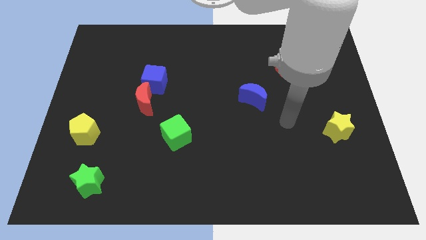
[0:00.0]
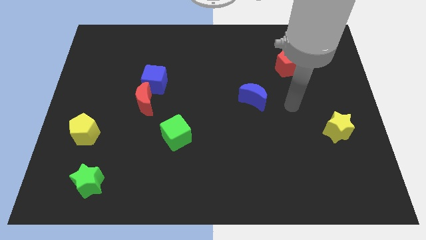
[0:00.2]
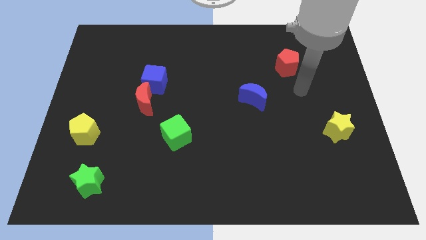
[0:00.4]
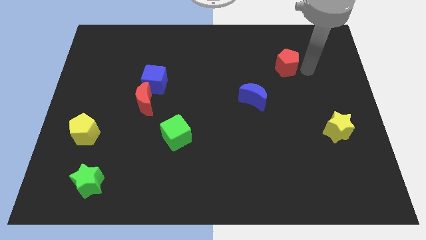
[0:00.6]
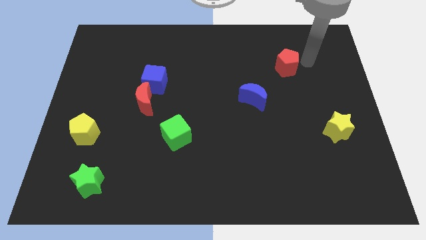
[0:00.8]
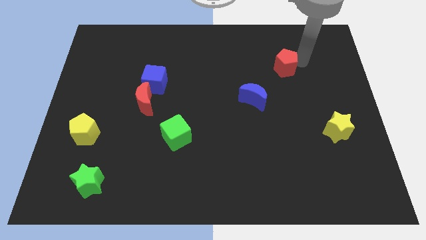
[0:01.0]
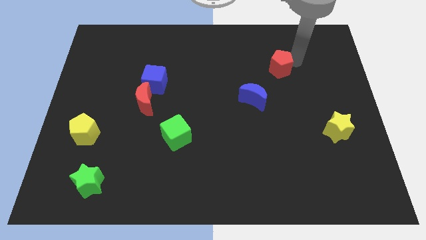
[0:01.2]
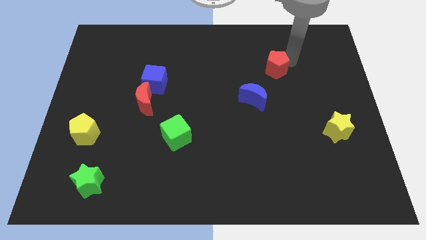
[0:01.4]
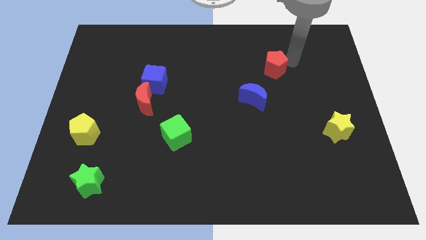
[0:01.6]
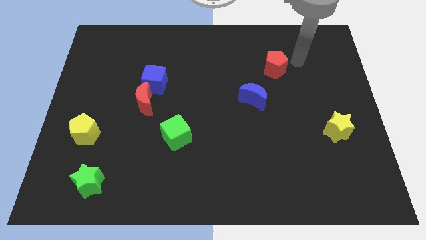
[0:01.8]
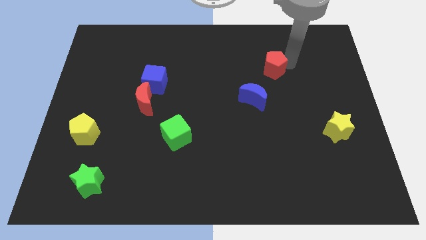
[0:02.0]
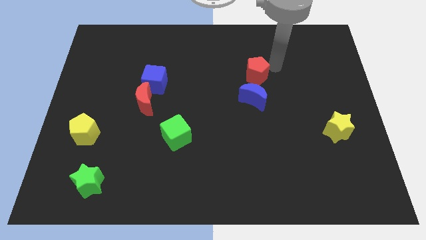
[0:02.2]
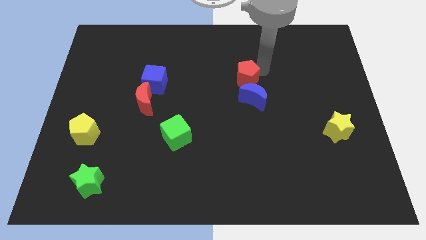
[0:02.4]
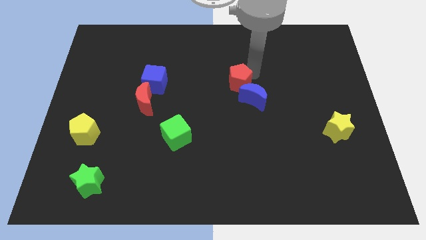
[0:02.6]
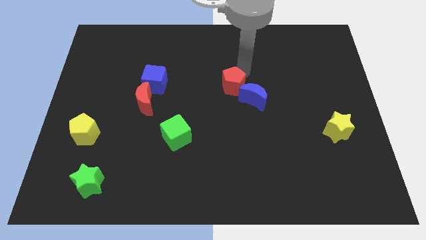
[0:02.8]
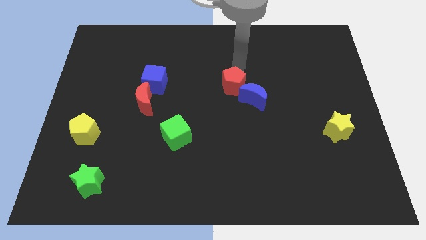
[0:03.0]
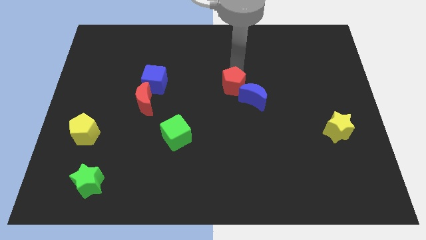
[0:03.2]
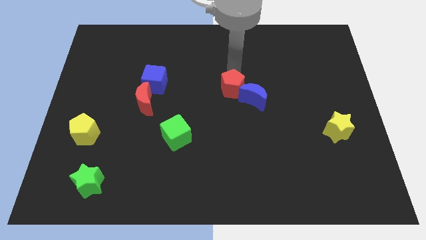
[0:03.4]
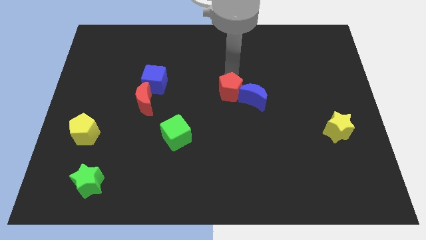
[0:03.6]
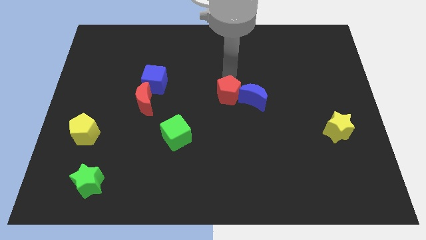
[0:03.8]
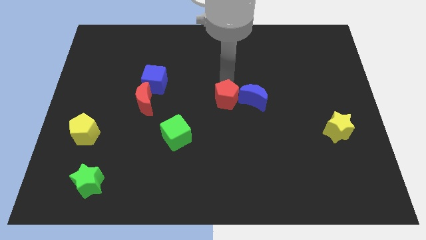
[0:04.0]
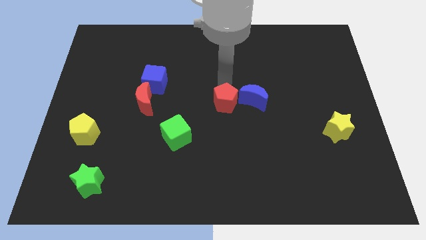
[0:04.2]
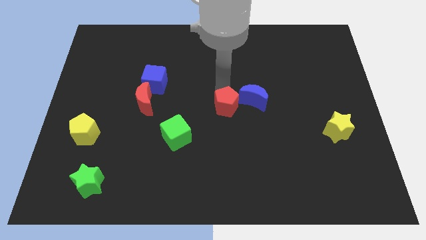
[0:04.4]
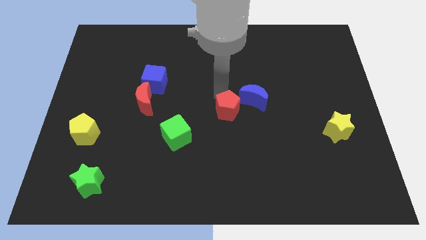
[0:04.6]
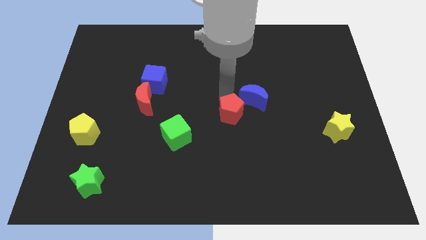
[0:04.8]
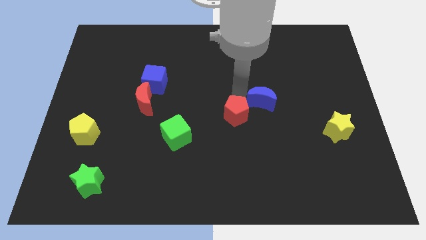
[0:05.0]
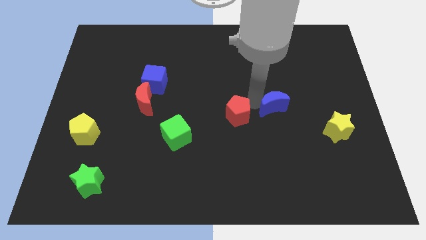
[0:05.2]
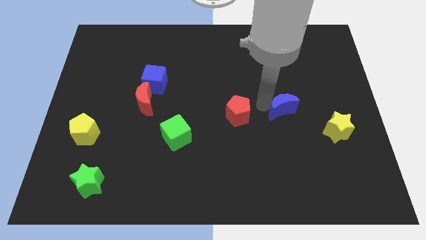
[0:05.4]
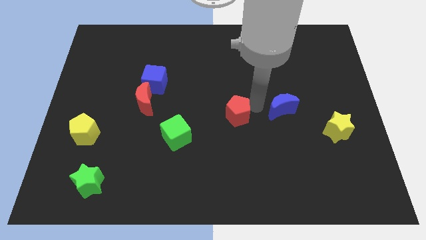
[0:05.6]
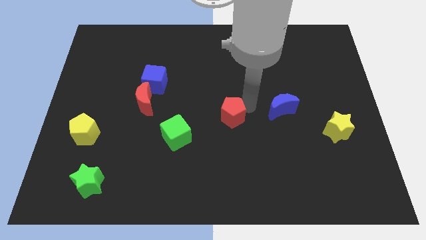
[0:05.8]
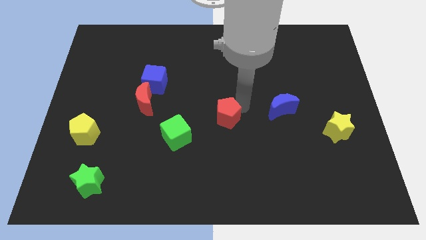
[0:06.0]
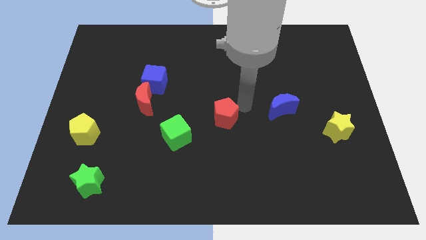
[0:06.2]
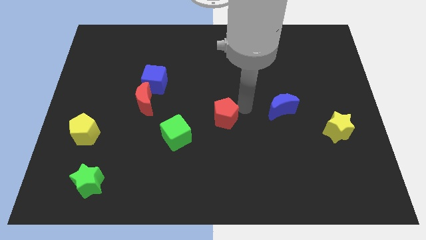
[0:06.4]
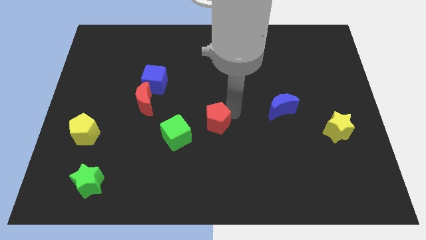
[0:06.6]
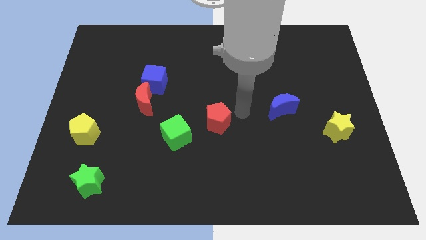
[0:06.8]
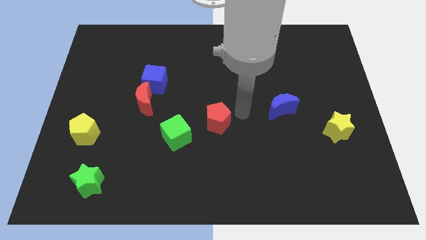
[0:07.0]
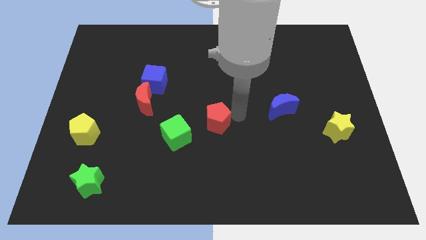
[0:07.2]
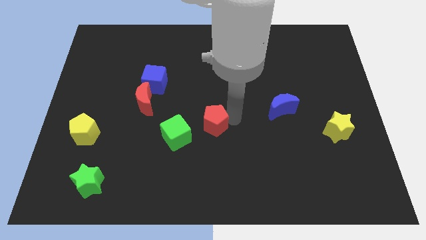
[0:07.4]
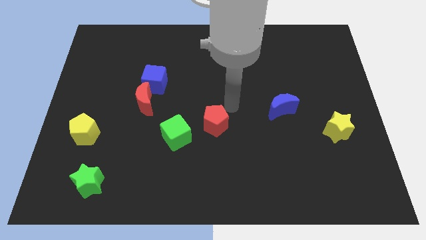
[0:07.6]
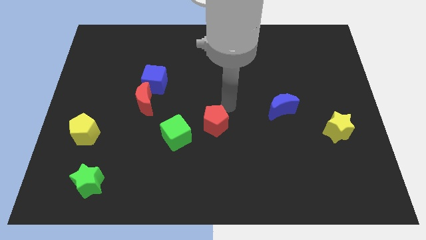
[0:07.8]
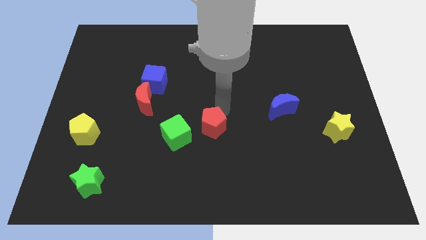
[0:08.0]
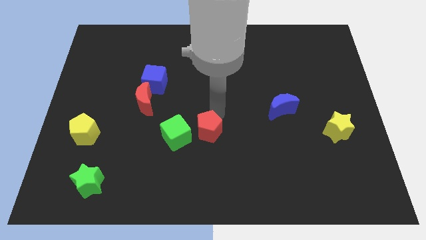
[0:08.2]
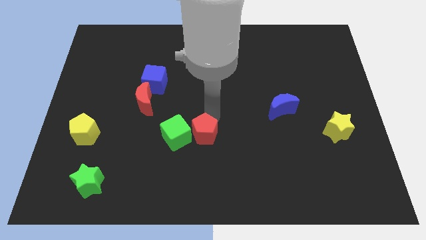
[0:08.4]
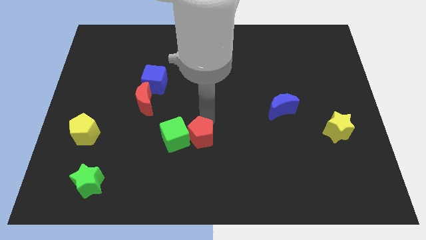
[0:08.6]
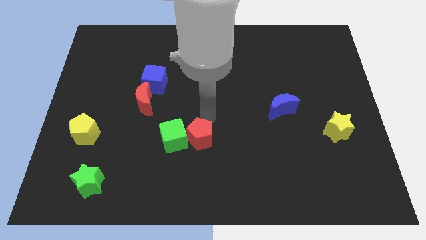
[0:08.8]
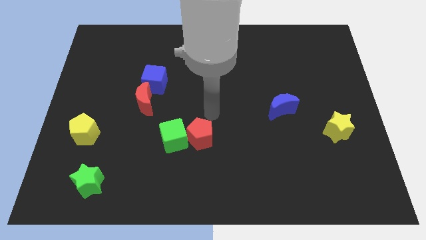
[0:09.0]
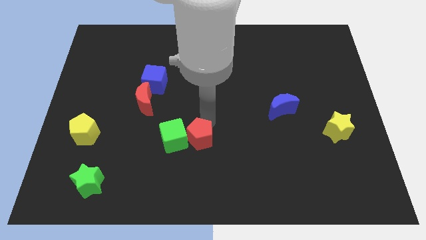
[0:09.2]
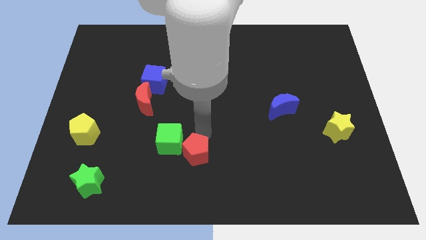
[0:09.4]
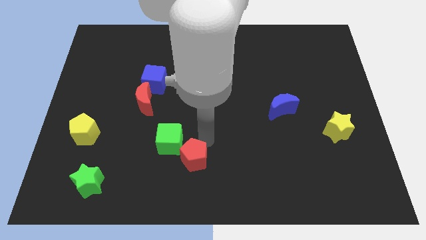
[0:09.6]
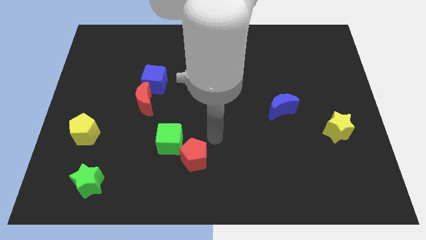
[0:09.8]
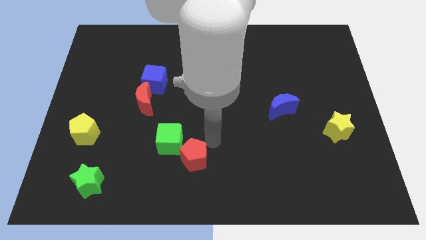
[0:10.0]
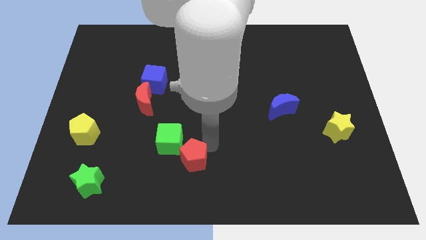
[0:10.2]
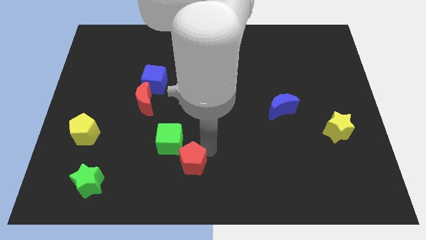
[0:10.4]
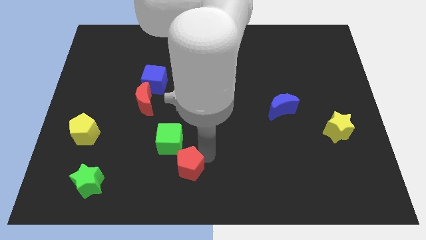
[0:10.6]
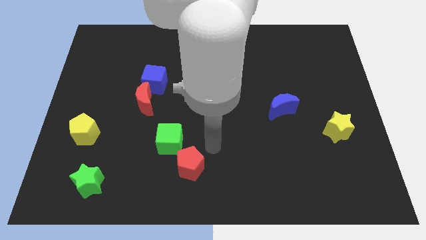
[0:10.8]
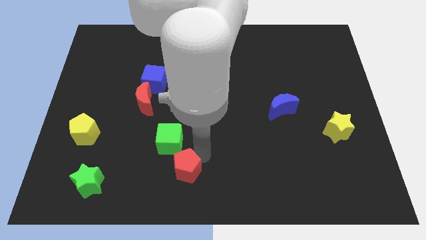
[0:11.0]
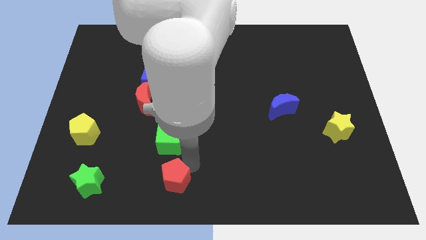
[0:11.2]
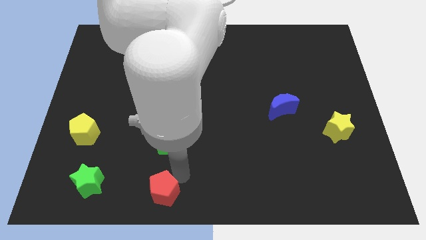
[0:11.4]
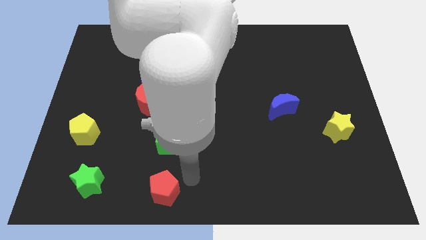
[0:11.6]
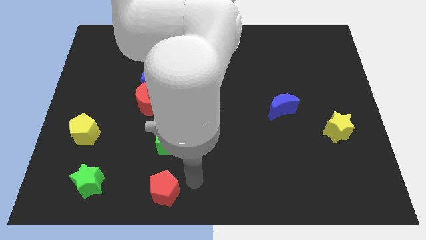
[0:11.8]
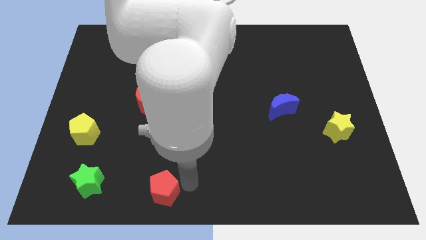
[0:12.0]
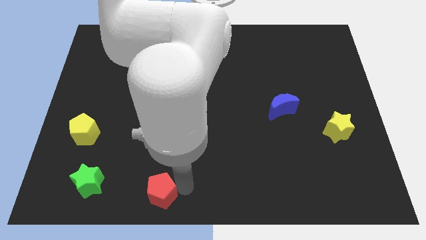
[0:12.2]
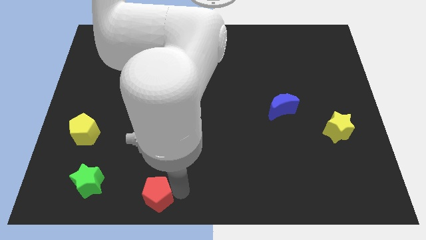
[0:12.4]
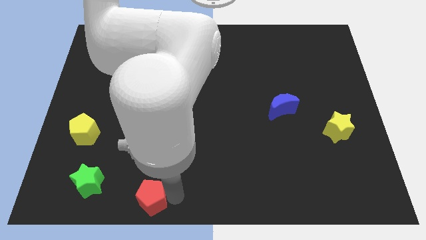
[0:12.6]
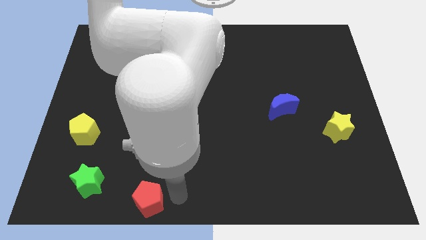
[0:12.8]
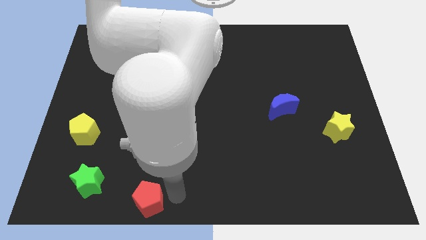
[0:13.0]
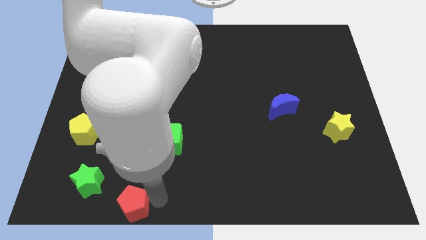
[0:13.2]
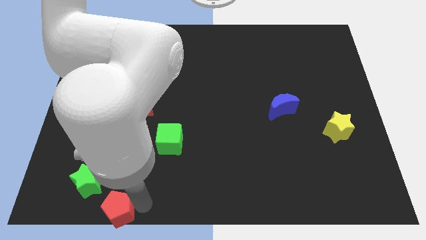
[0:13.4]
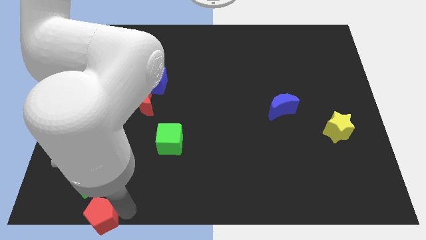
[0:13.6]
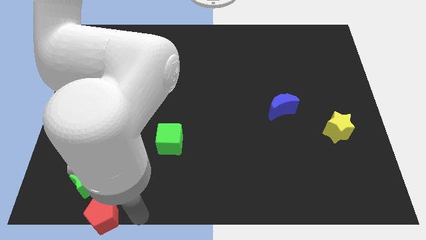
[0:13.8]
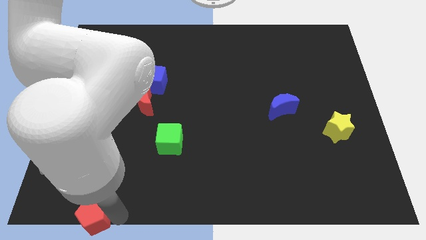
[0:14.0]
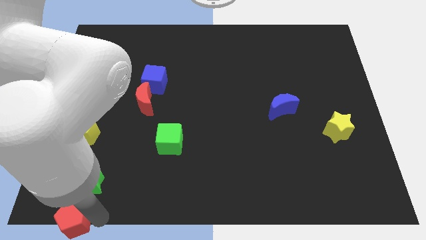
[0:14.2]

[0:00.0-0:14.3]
put the red pentagon to the bottom left of the board

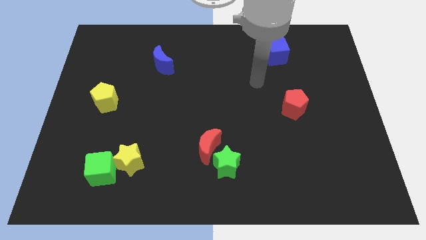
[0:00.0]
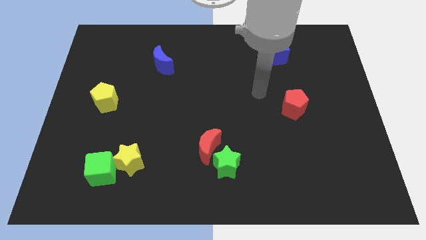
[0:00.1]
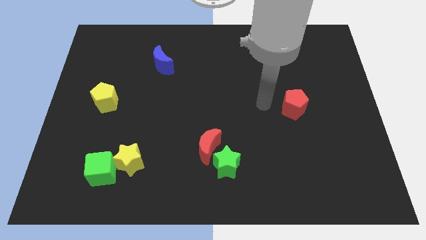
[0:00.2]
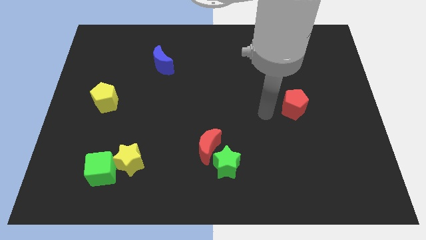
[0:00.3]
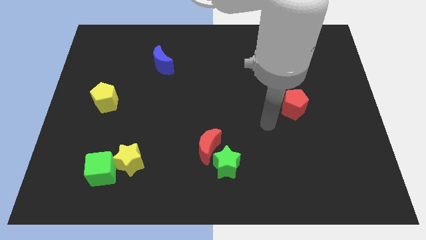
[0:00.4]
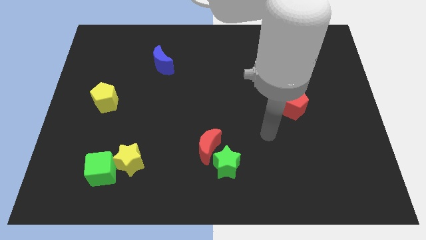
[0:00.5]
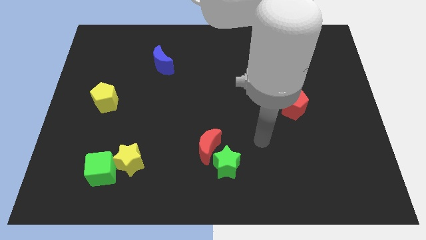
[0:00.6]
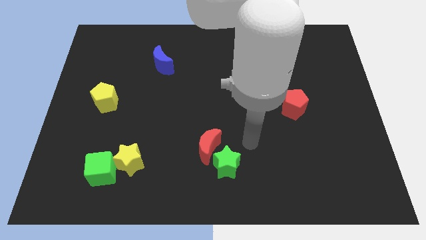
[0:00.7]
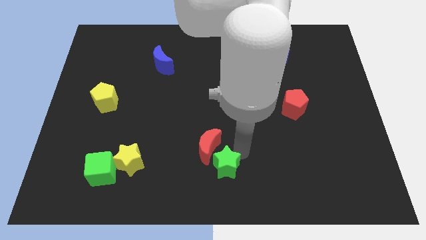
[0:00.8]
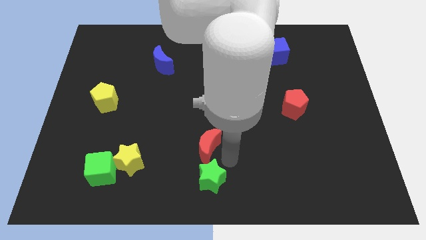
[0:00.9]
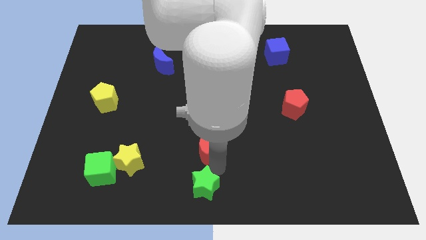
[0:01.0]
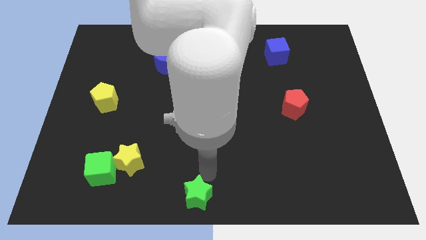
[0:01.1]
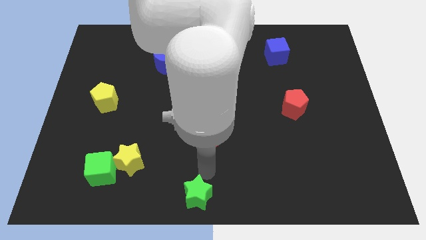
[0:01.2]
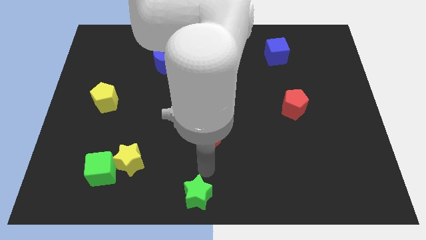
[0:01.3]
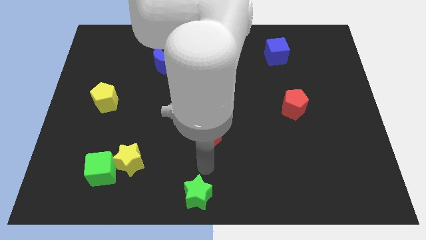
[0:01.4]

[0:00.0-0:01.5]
put the red moon to the middle of the board
